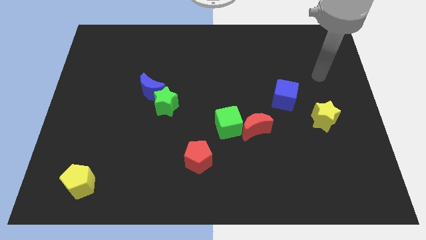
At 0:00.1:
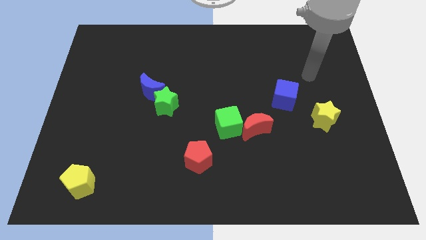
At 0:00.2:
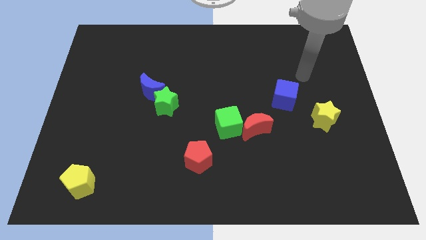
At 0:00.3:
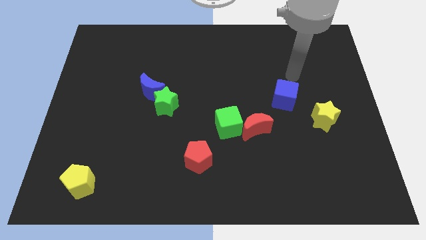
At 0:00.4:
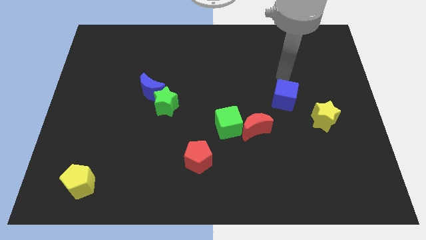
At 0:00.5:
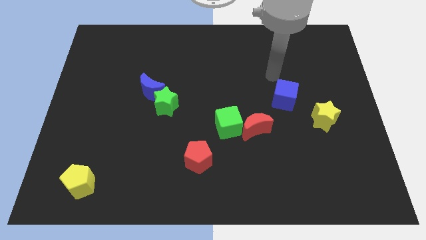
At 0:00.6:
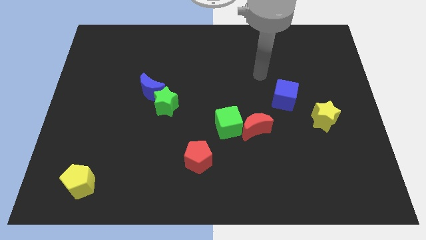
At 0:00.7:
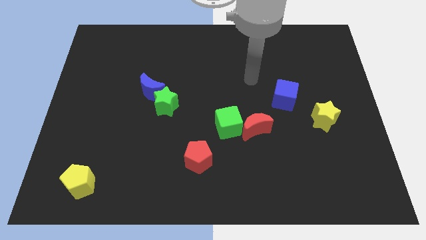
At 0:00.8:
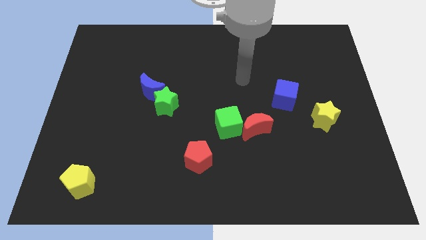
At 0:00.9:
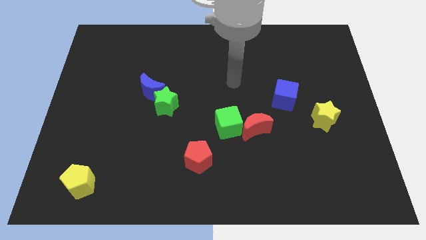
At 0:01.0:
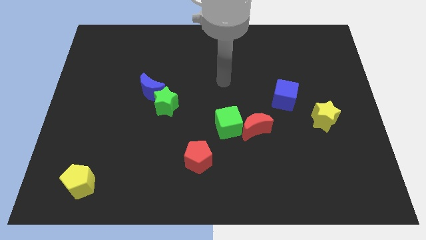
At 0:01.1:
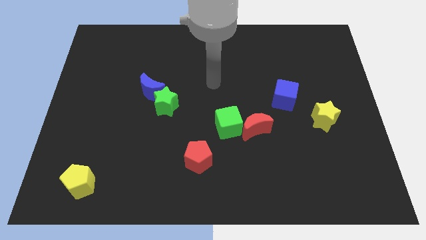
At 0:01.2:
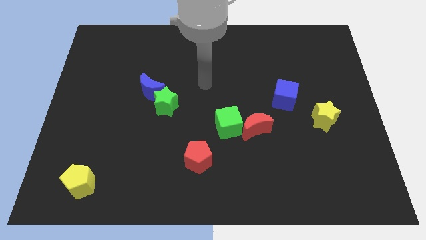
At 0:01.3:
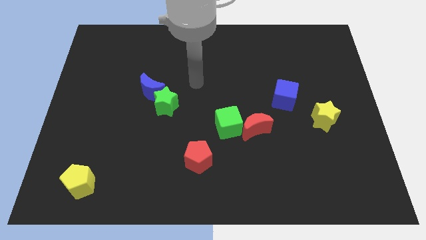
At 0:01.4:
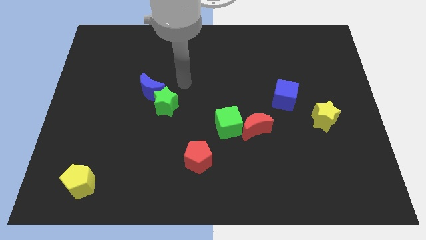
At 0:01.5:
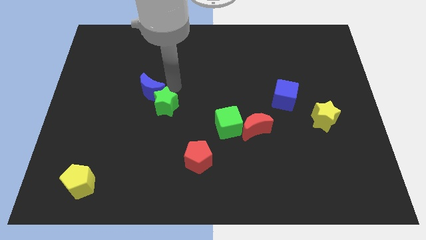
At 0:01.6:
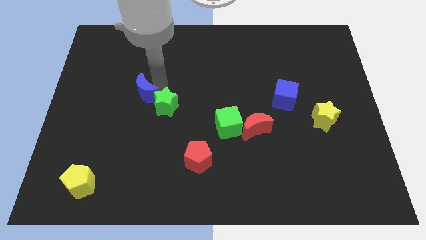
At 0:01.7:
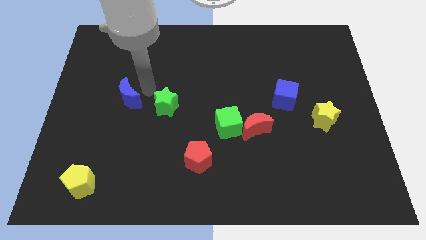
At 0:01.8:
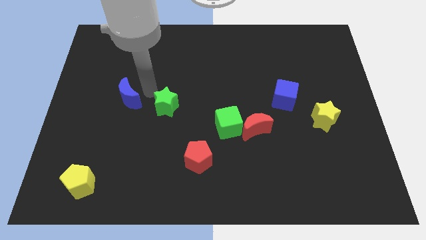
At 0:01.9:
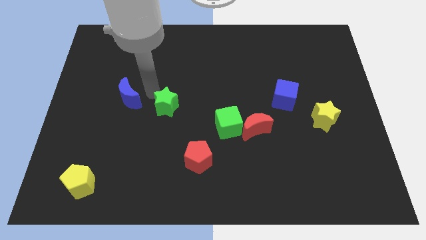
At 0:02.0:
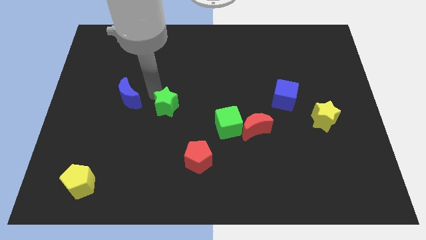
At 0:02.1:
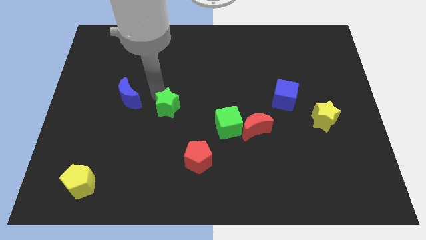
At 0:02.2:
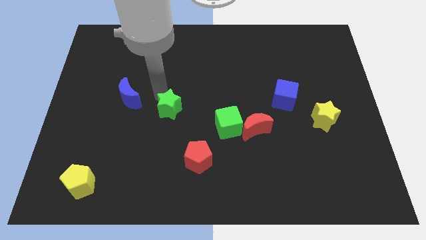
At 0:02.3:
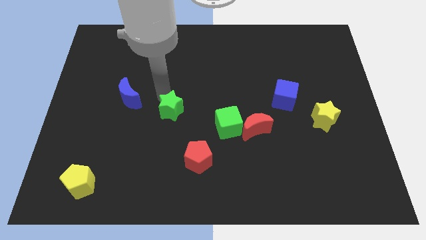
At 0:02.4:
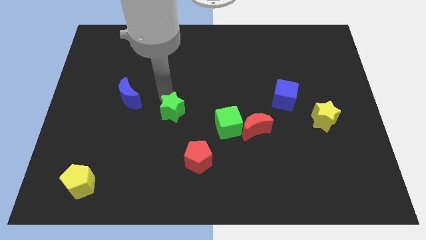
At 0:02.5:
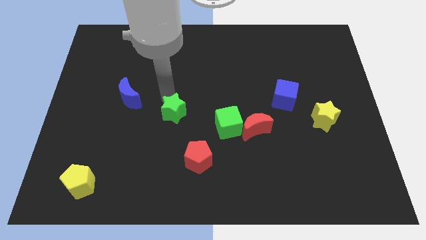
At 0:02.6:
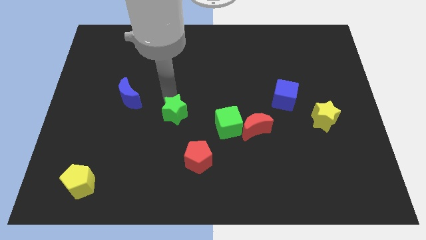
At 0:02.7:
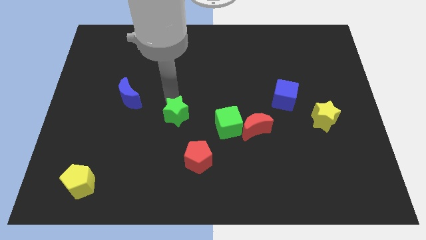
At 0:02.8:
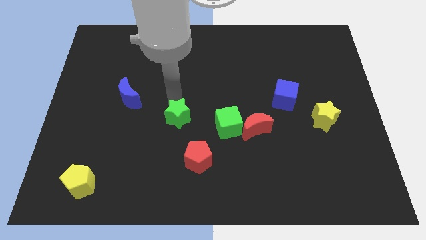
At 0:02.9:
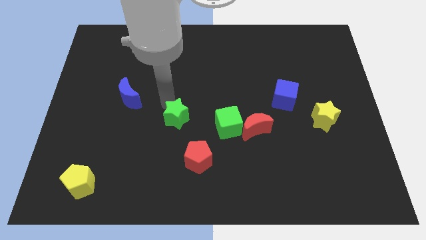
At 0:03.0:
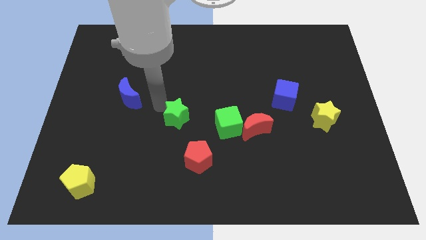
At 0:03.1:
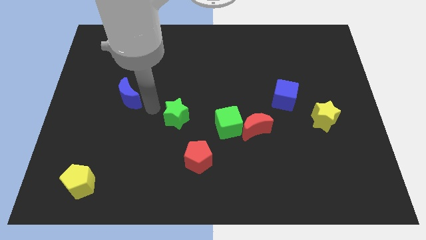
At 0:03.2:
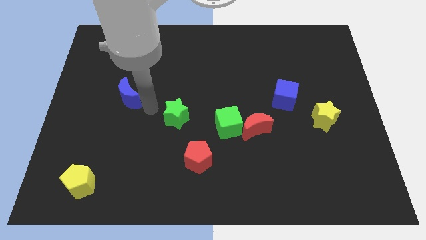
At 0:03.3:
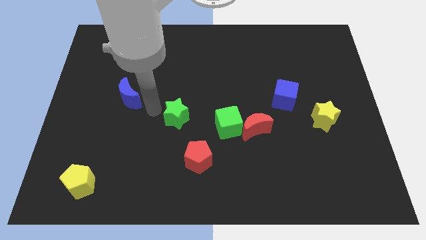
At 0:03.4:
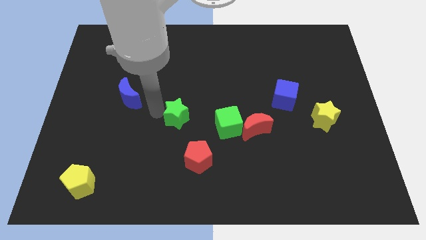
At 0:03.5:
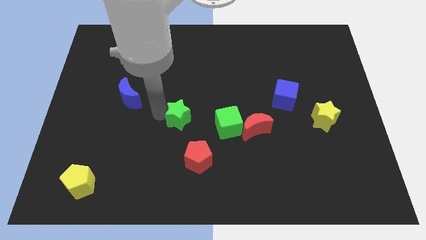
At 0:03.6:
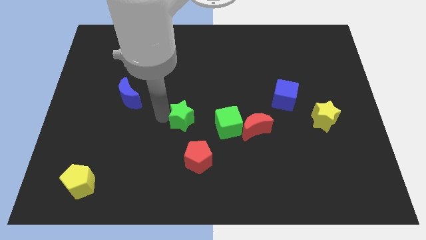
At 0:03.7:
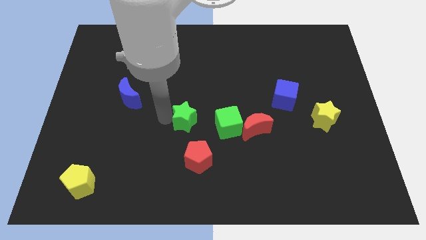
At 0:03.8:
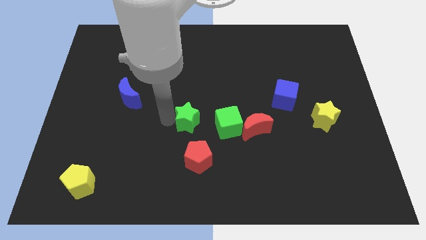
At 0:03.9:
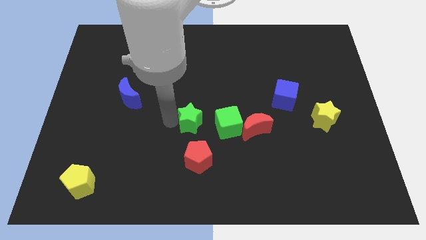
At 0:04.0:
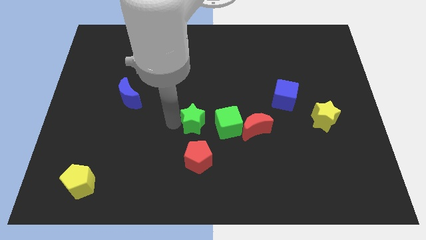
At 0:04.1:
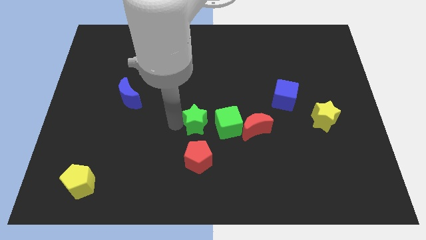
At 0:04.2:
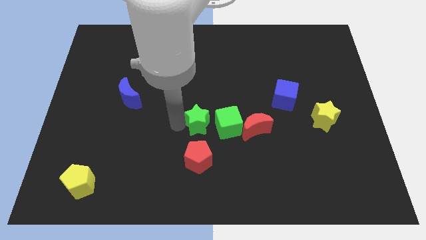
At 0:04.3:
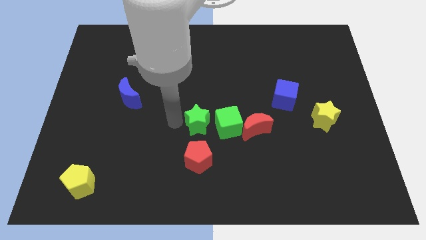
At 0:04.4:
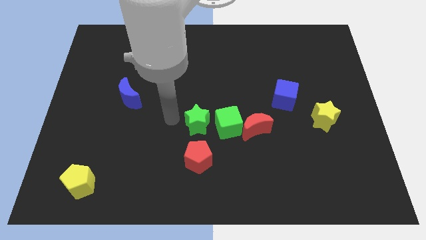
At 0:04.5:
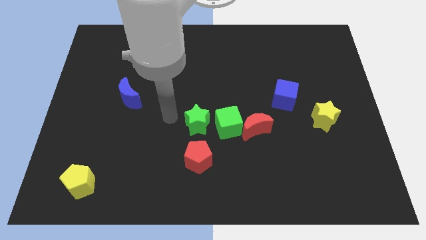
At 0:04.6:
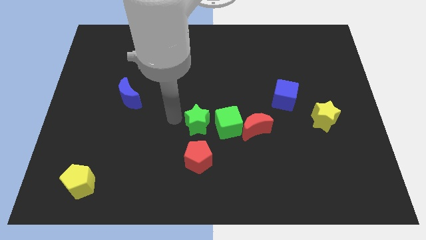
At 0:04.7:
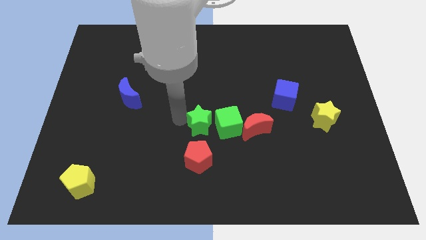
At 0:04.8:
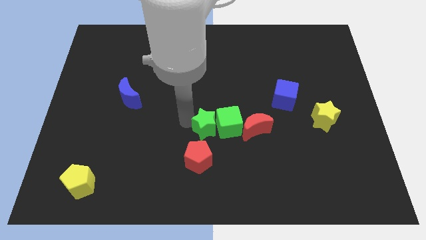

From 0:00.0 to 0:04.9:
slide the green star to the green cube

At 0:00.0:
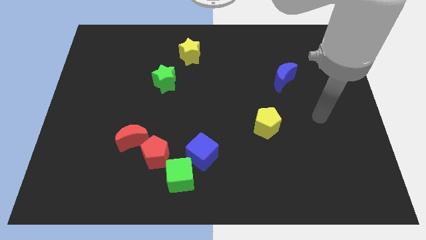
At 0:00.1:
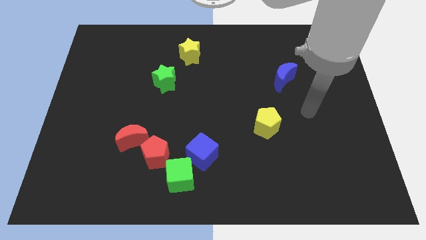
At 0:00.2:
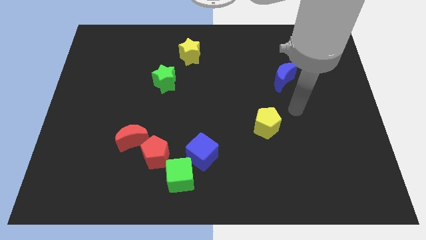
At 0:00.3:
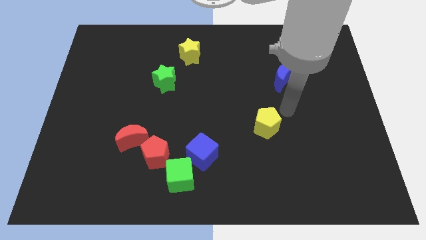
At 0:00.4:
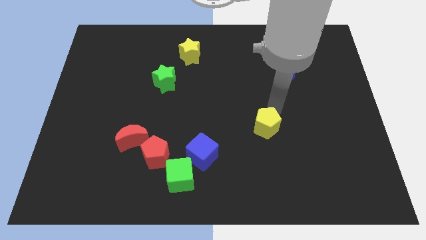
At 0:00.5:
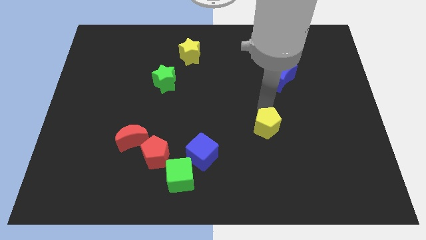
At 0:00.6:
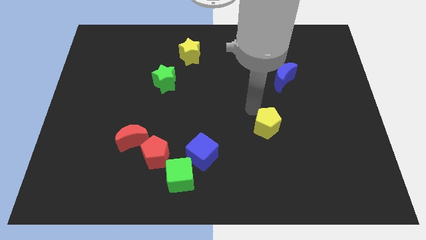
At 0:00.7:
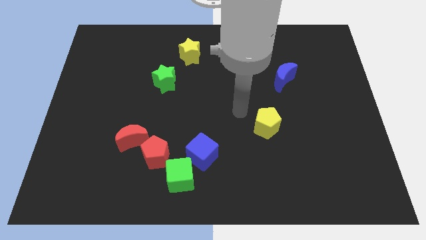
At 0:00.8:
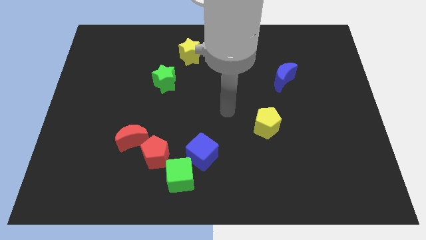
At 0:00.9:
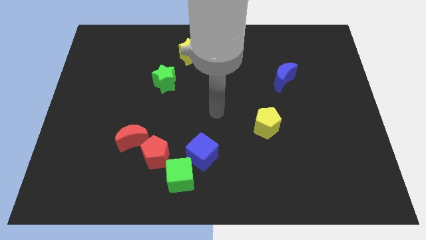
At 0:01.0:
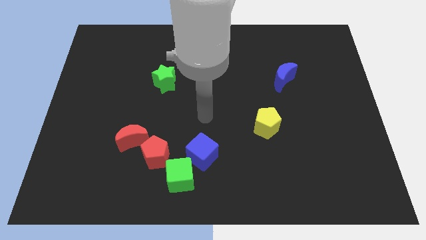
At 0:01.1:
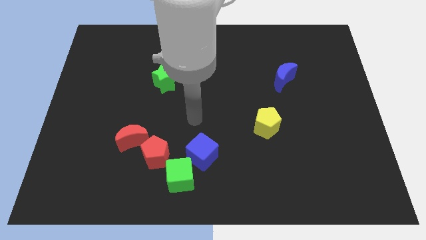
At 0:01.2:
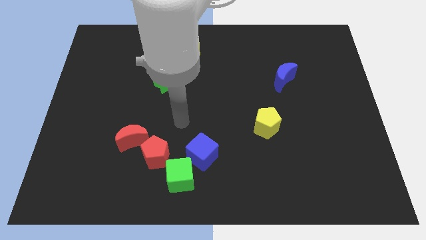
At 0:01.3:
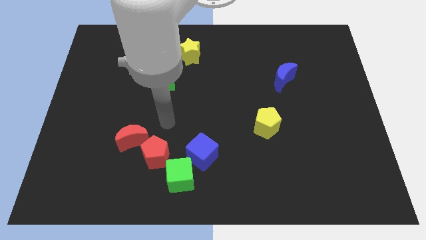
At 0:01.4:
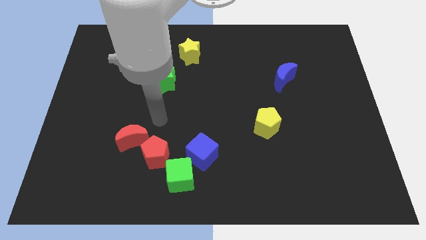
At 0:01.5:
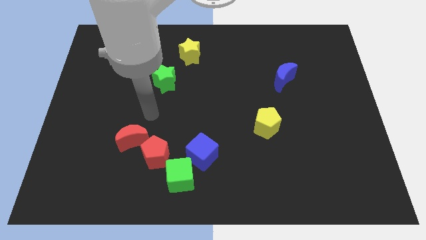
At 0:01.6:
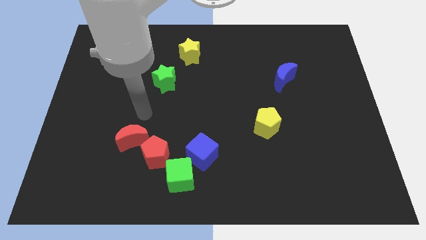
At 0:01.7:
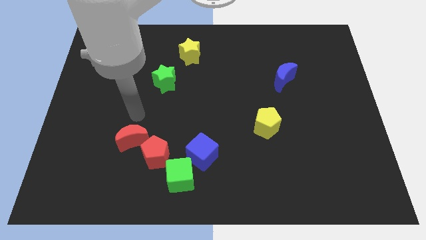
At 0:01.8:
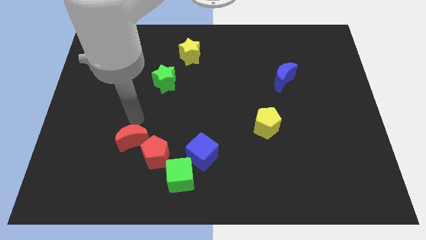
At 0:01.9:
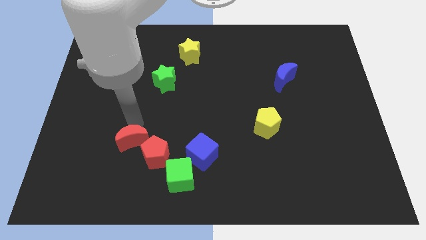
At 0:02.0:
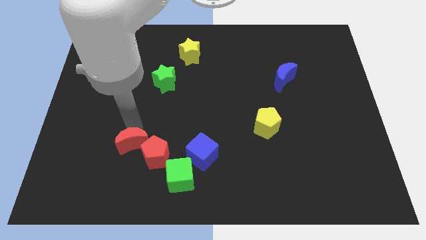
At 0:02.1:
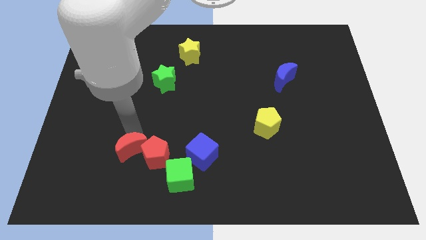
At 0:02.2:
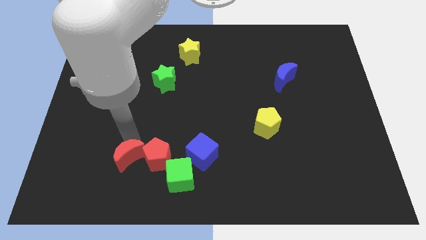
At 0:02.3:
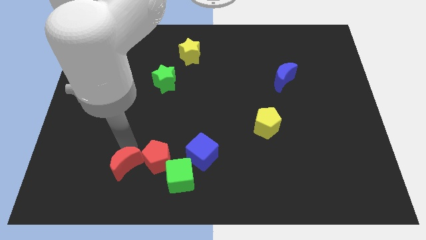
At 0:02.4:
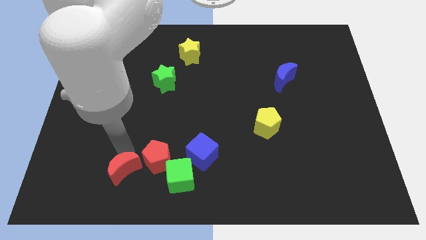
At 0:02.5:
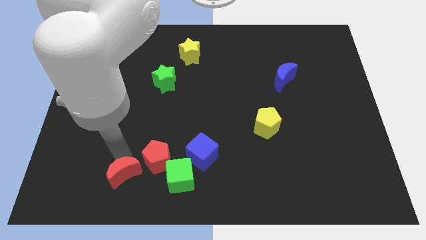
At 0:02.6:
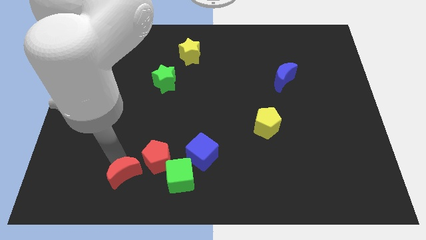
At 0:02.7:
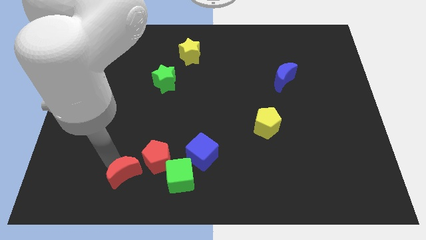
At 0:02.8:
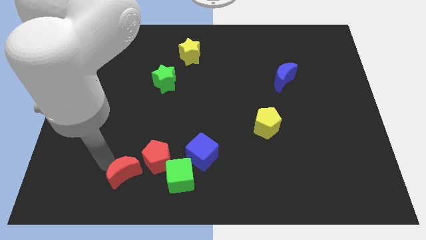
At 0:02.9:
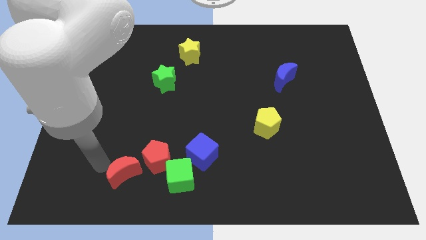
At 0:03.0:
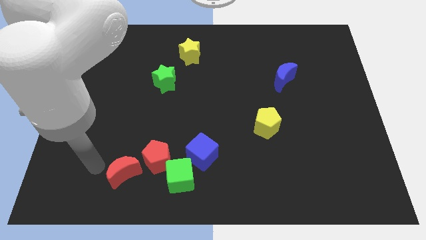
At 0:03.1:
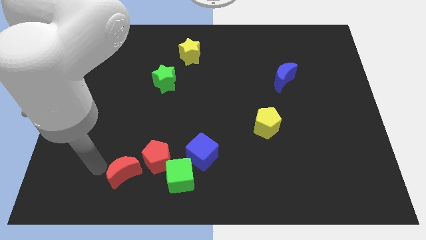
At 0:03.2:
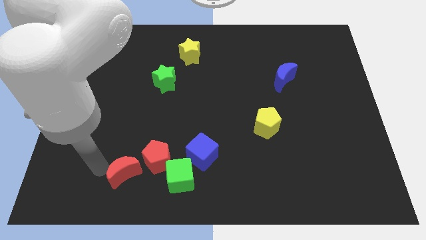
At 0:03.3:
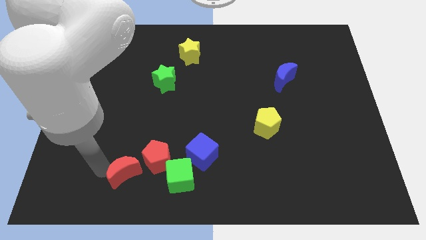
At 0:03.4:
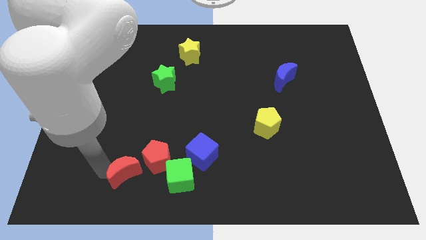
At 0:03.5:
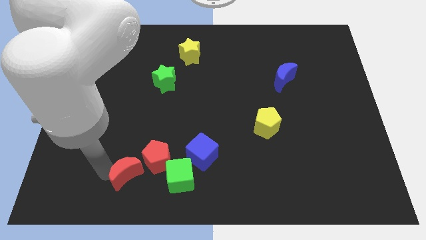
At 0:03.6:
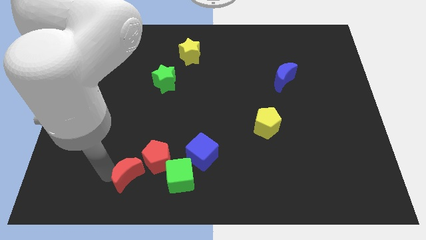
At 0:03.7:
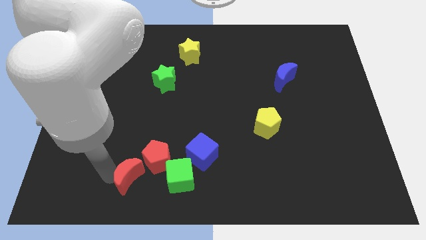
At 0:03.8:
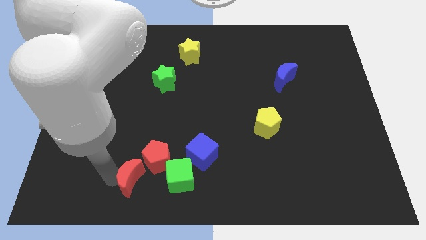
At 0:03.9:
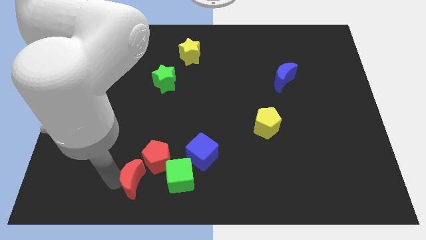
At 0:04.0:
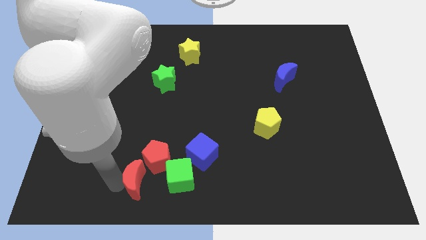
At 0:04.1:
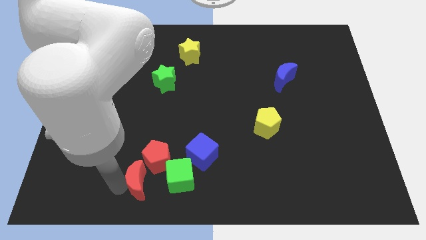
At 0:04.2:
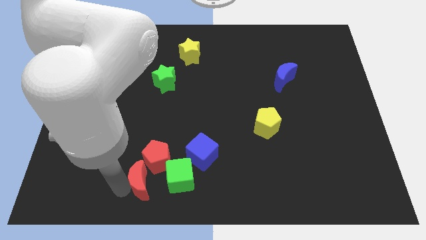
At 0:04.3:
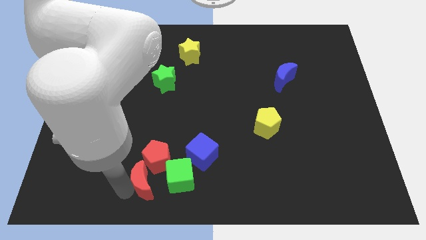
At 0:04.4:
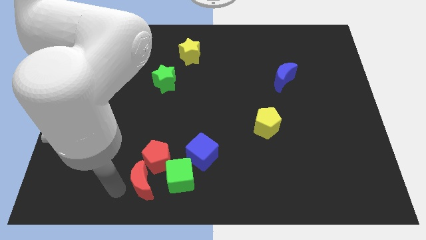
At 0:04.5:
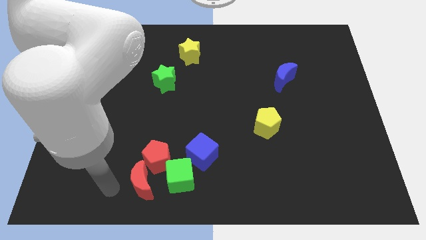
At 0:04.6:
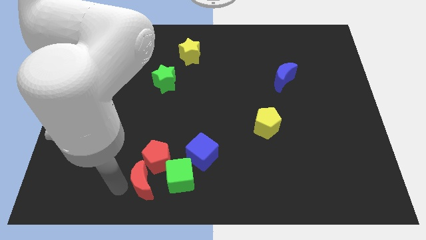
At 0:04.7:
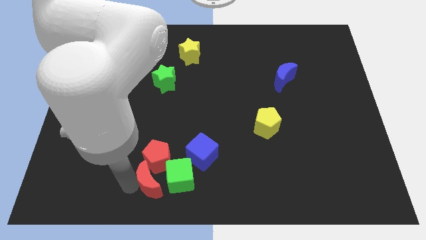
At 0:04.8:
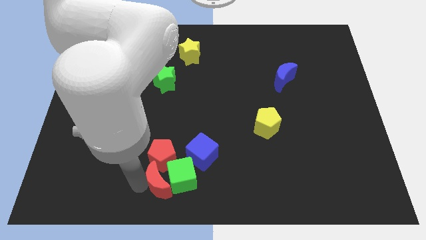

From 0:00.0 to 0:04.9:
push the red moon to the green cube
